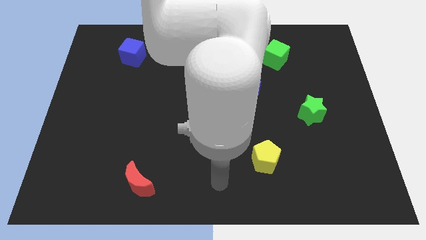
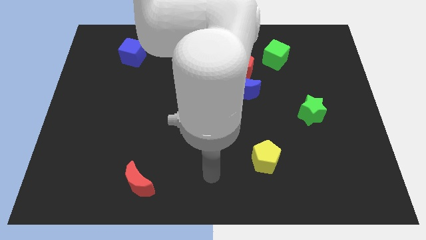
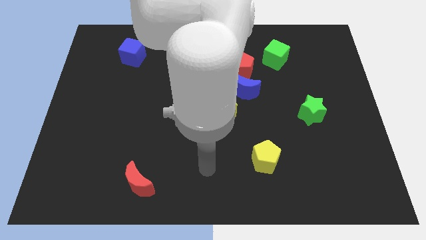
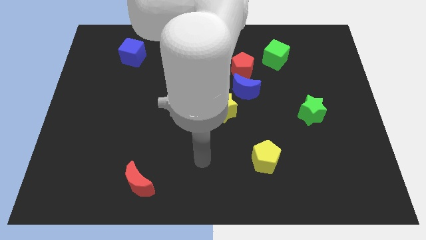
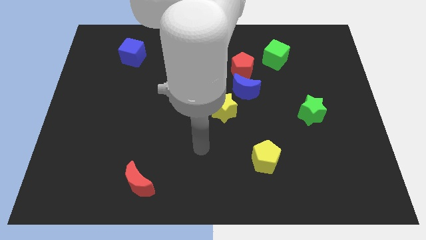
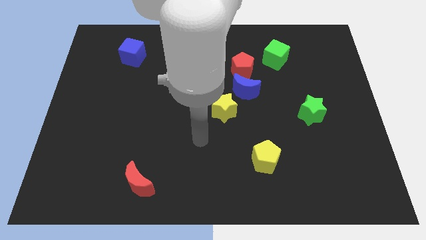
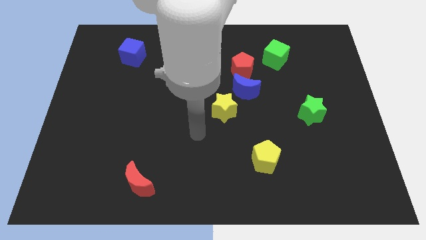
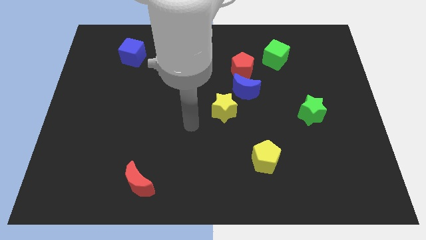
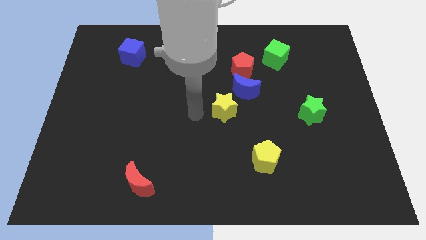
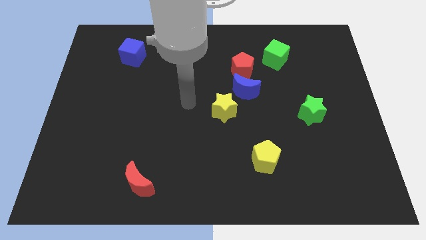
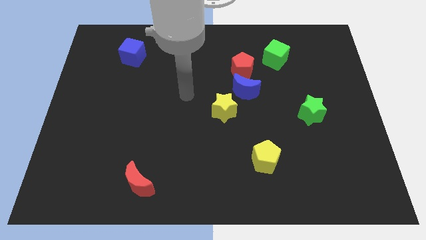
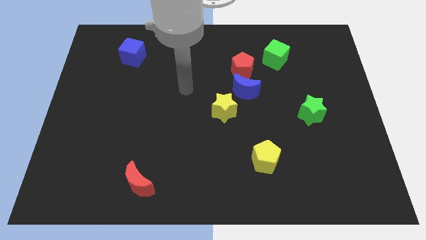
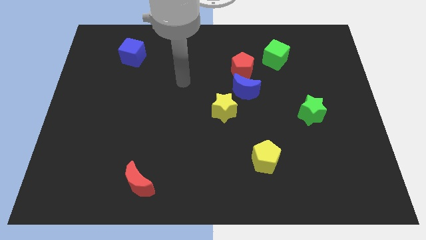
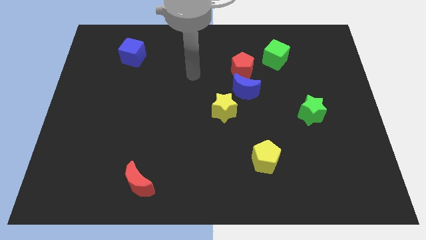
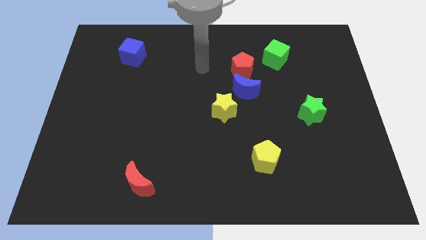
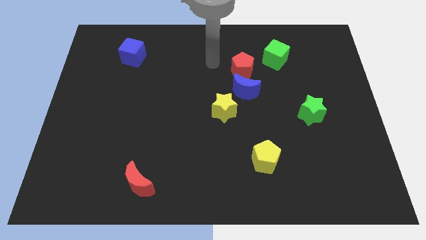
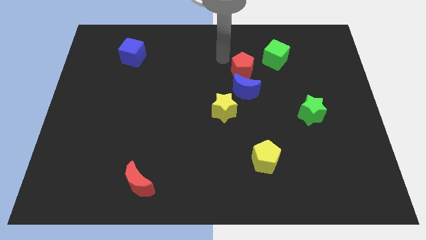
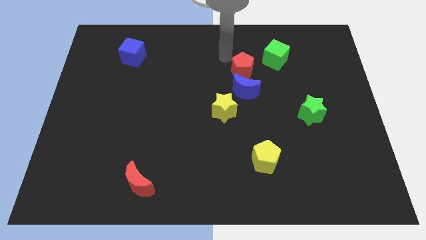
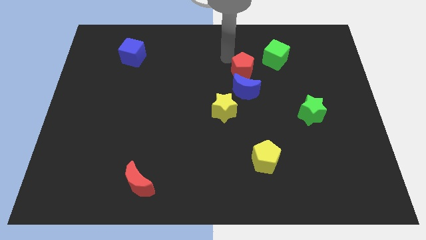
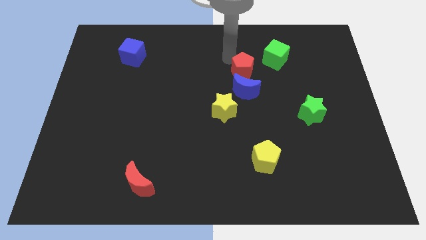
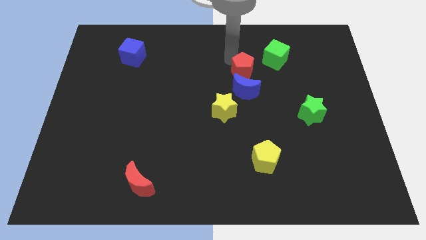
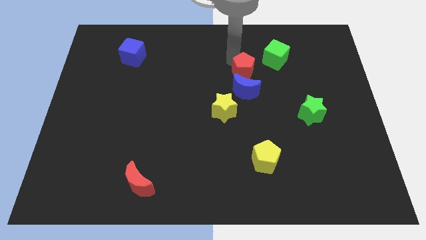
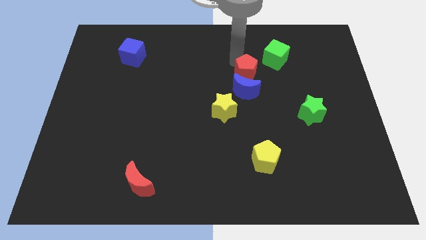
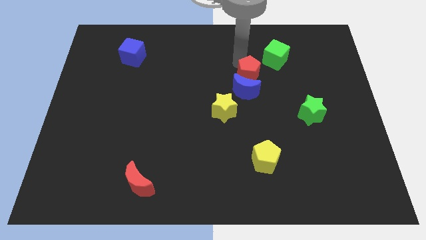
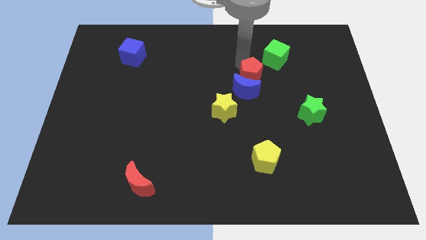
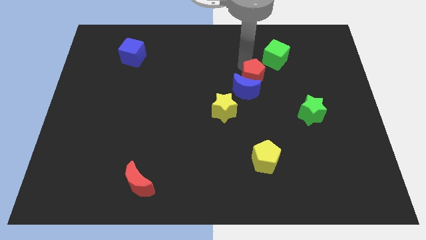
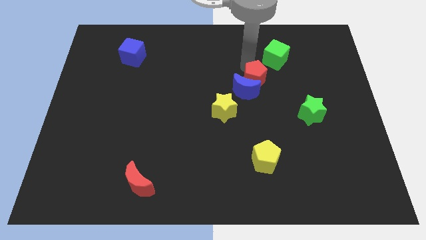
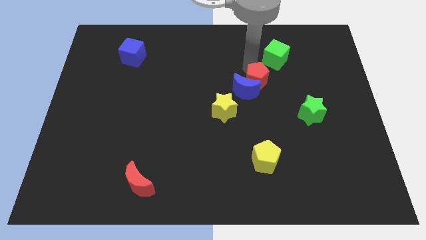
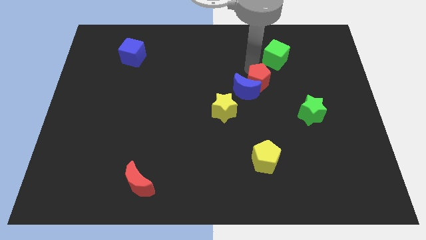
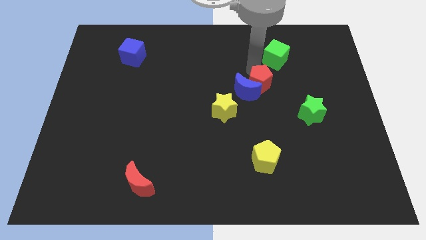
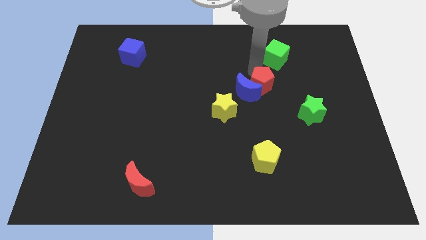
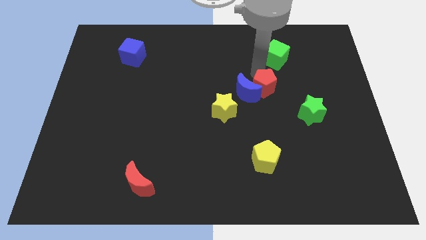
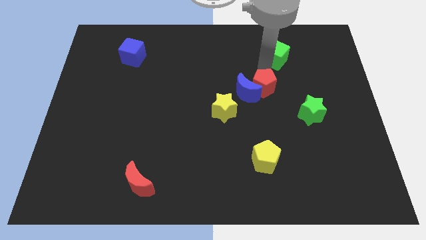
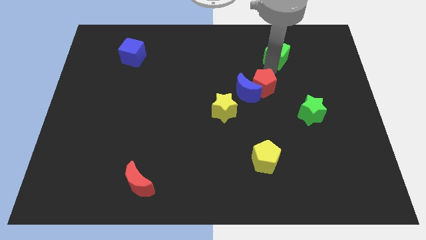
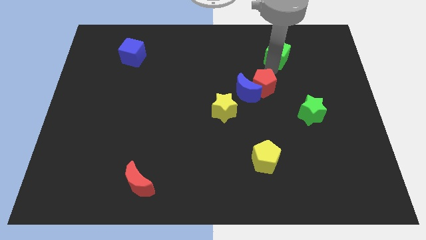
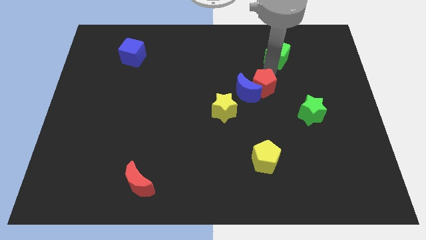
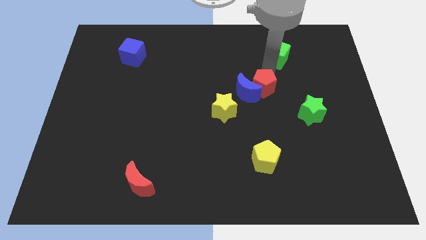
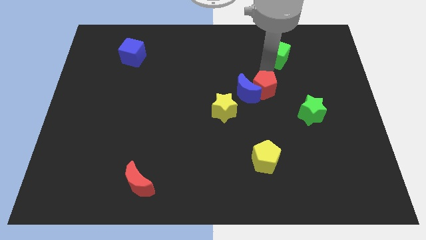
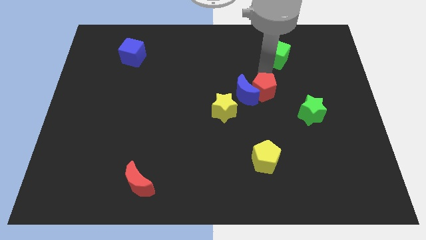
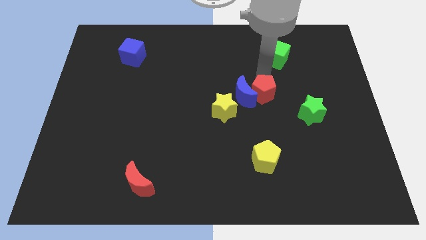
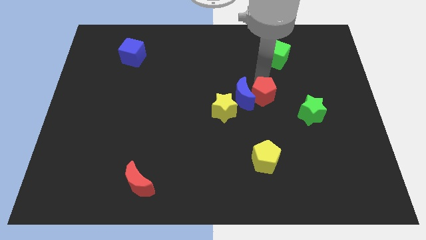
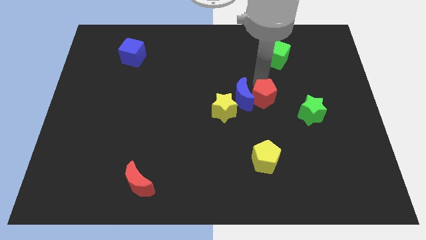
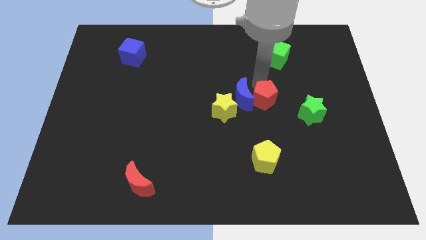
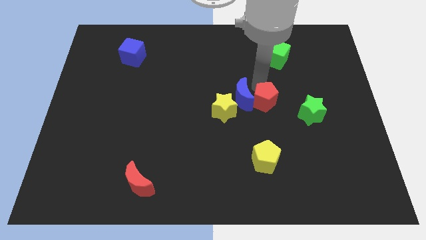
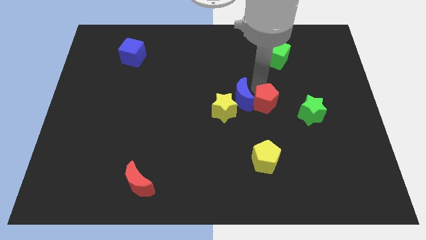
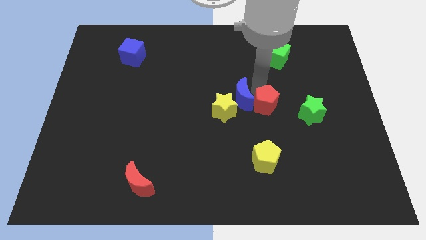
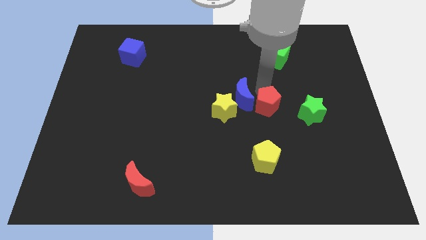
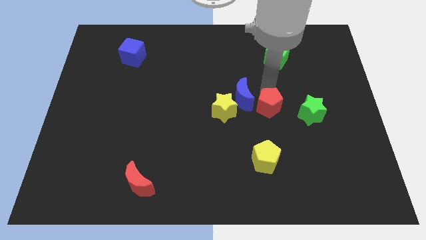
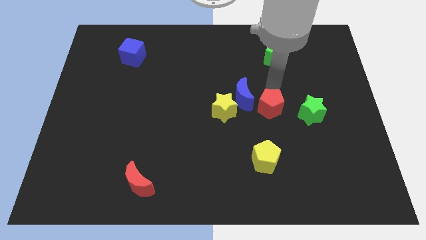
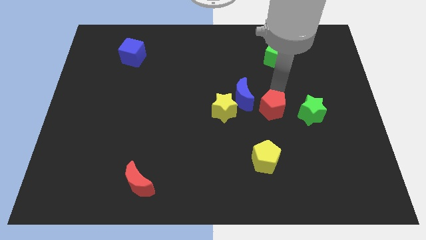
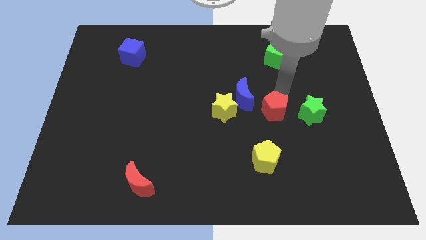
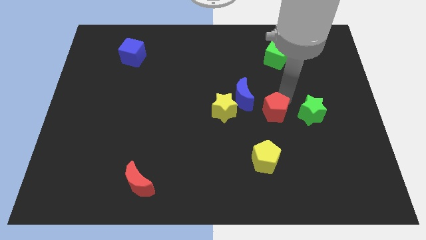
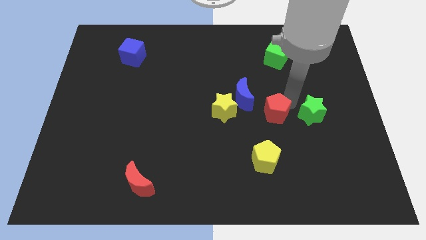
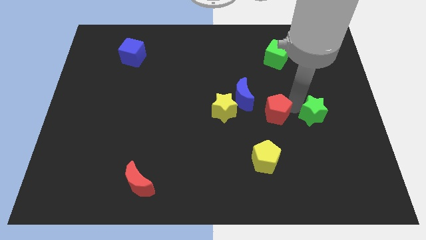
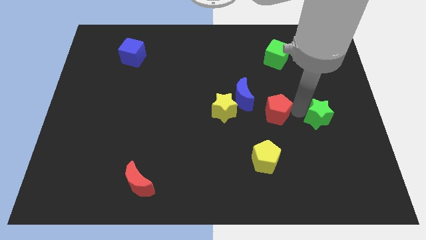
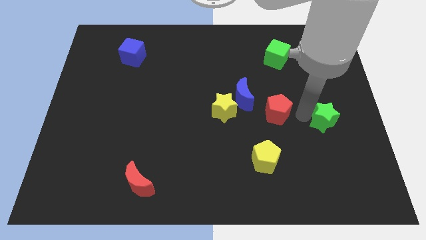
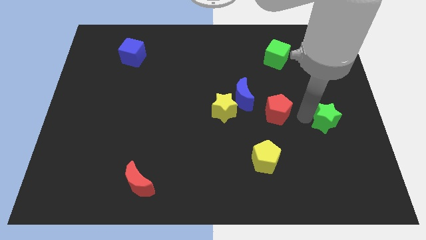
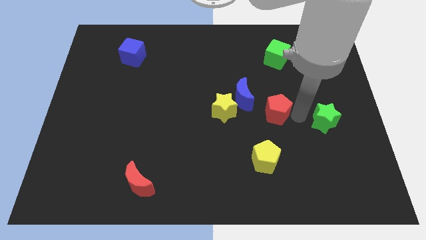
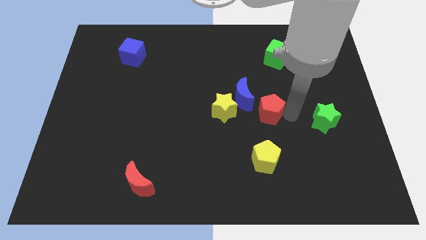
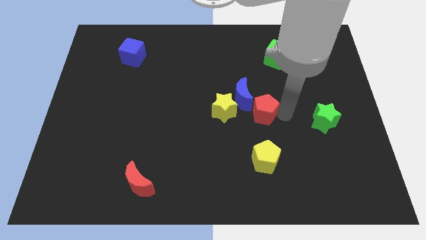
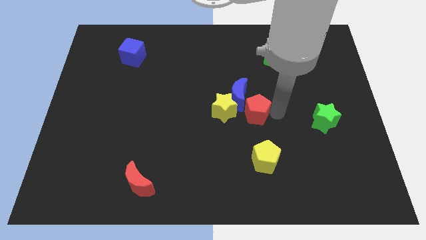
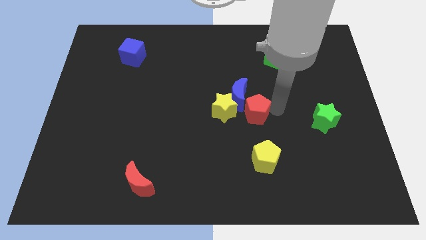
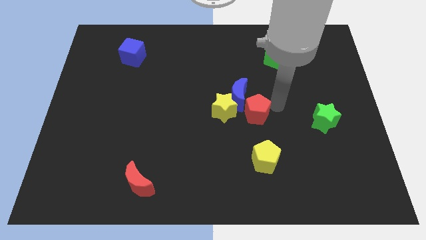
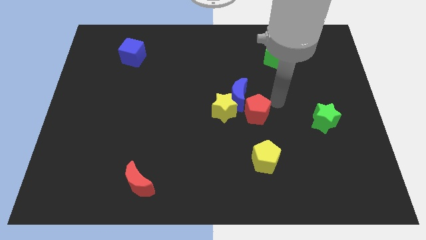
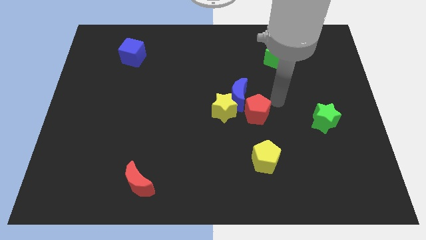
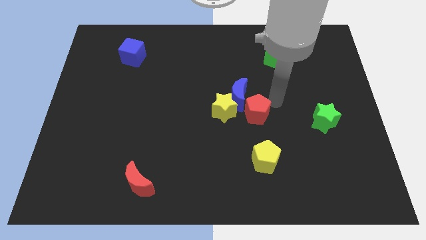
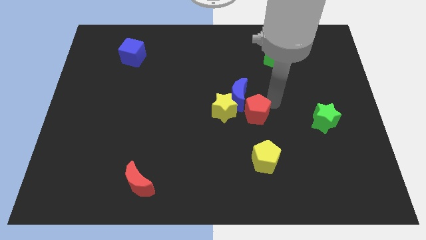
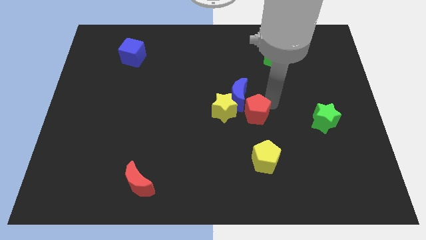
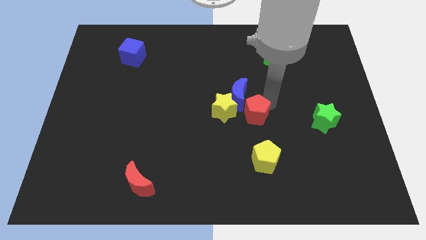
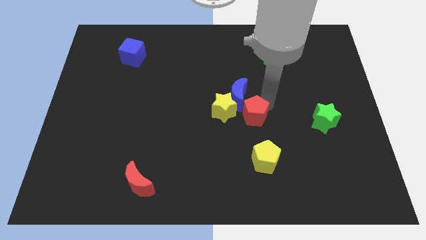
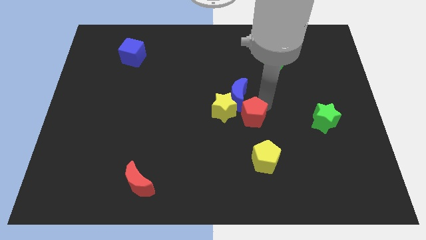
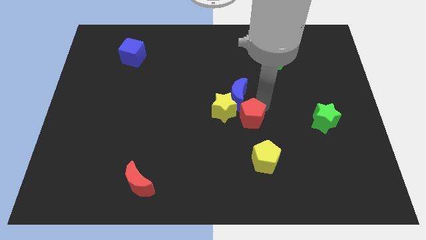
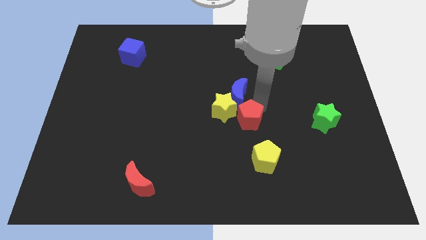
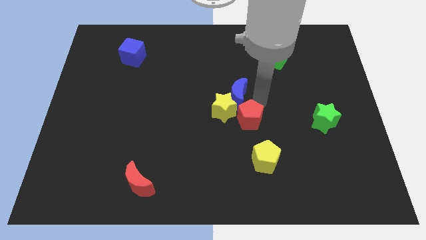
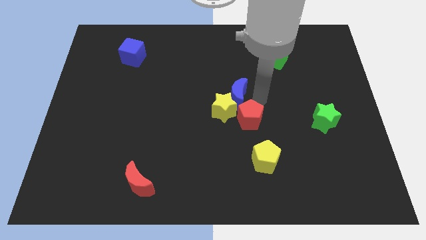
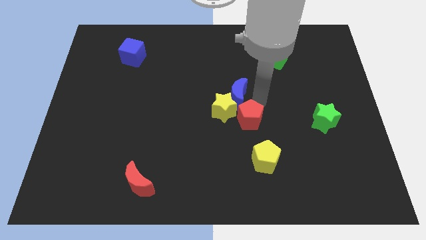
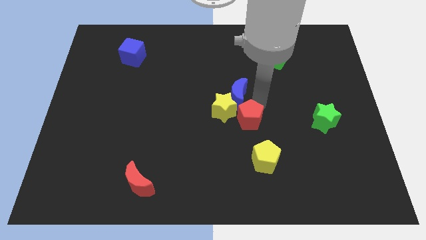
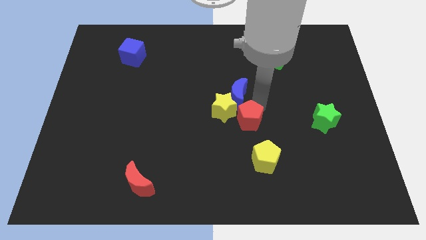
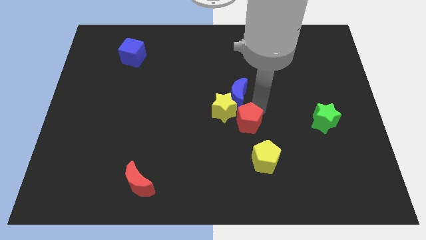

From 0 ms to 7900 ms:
move the red pentagon to the top left side of the yellow pentagon
